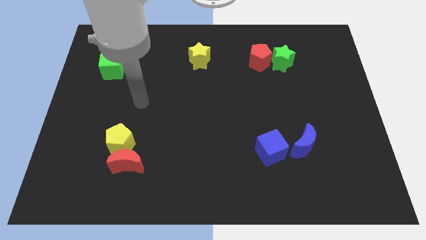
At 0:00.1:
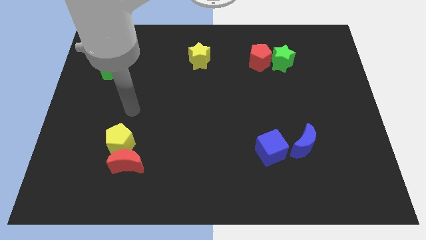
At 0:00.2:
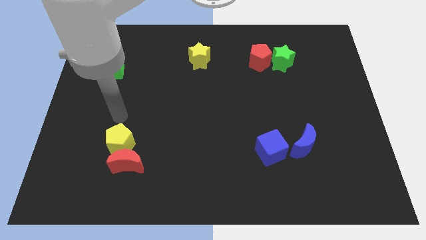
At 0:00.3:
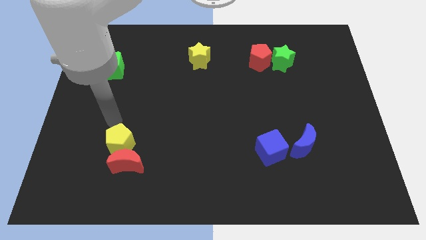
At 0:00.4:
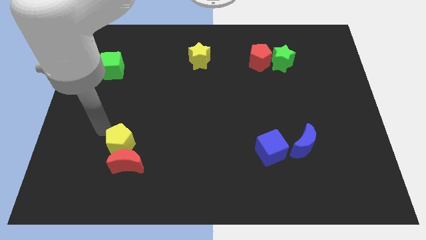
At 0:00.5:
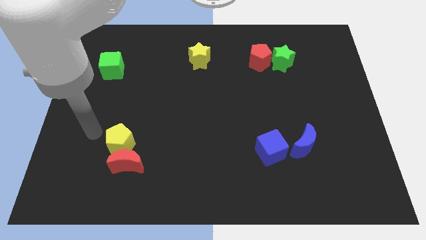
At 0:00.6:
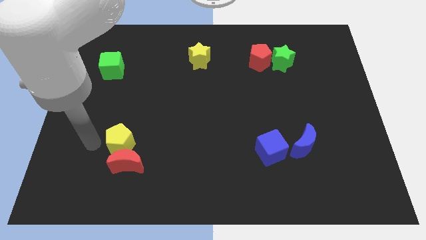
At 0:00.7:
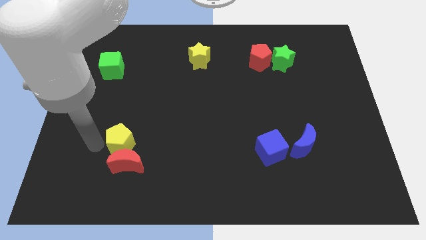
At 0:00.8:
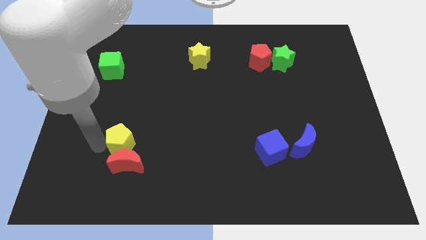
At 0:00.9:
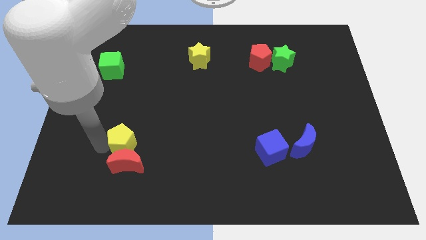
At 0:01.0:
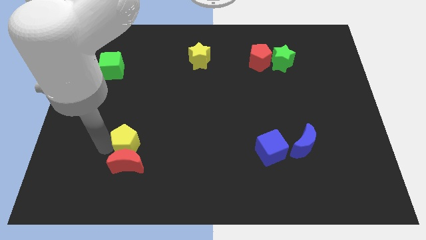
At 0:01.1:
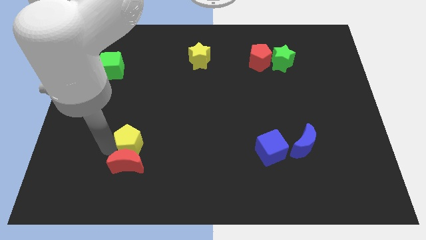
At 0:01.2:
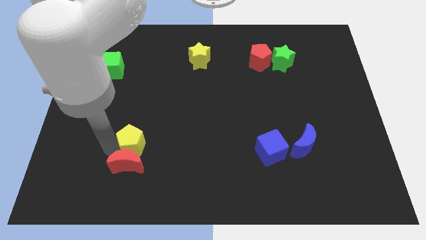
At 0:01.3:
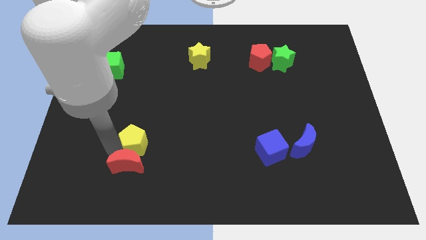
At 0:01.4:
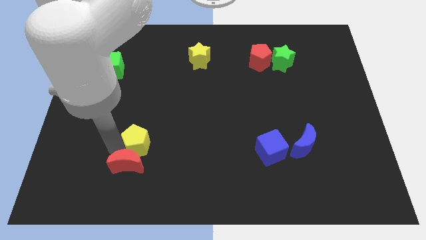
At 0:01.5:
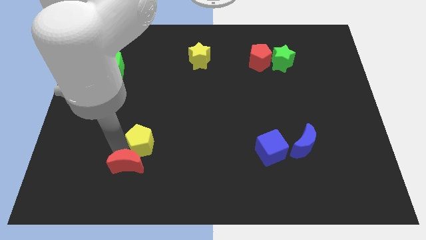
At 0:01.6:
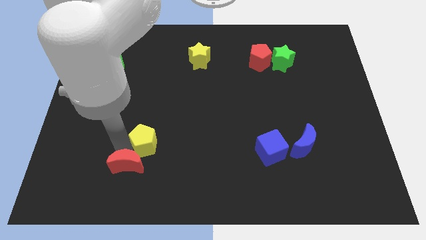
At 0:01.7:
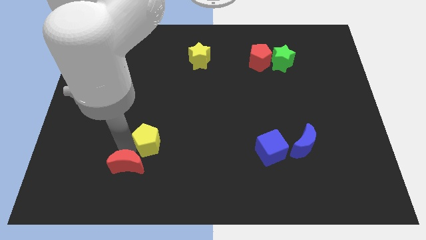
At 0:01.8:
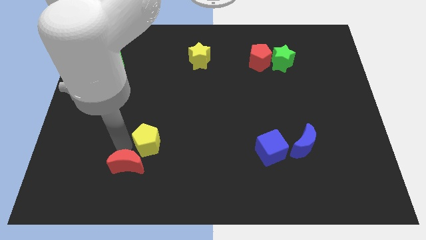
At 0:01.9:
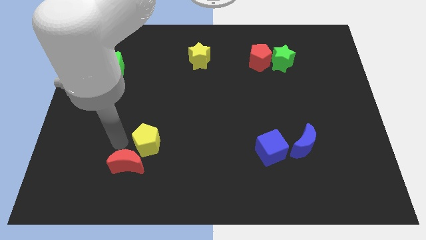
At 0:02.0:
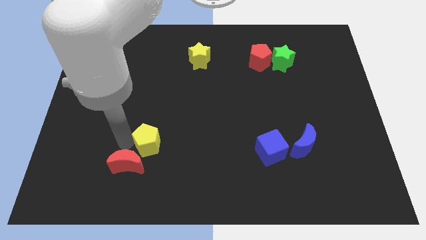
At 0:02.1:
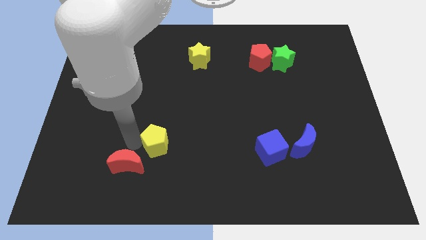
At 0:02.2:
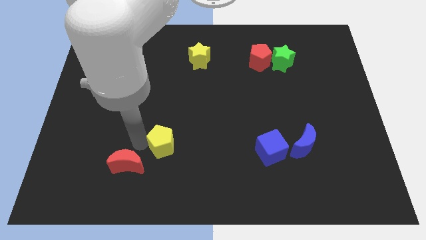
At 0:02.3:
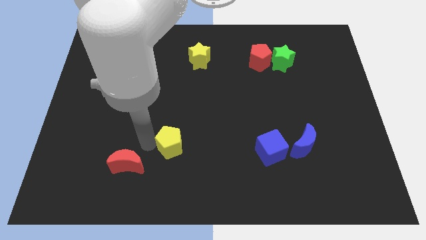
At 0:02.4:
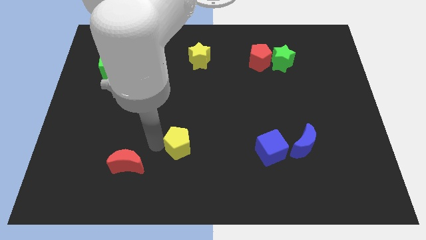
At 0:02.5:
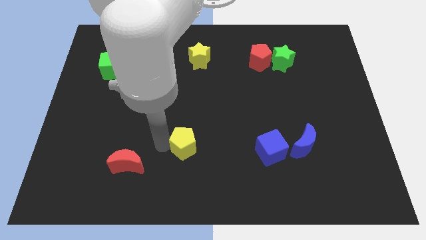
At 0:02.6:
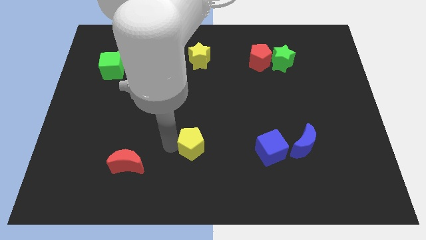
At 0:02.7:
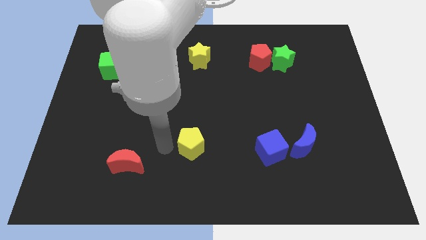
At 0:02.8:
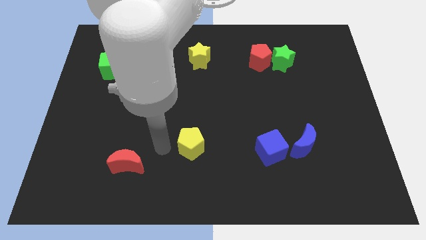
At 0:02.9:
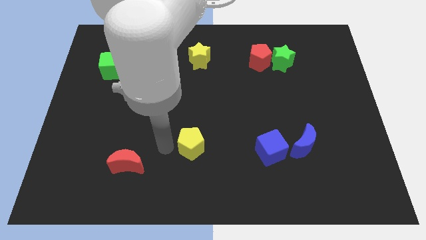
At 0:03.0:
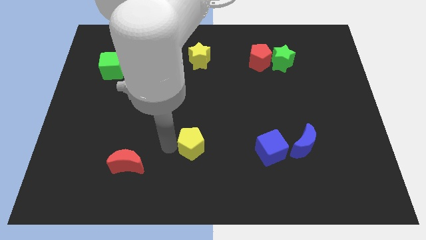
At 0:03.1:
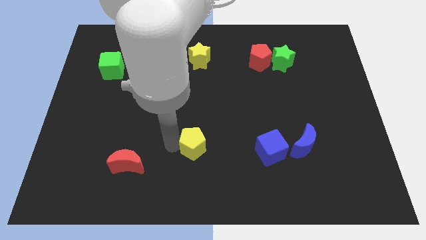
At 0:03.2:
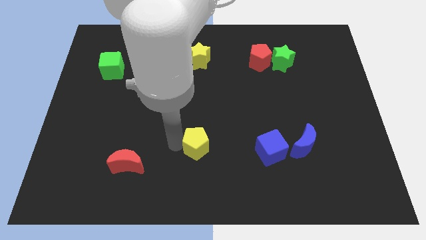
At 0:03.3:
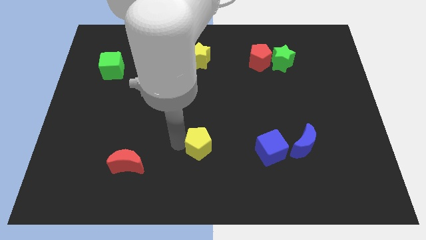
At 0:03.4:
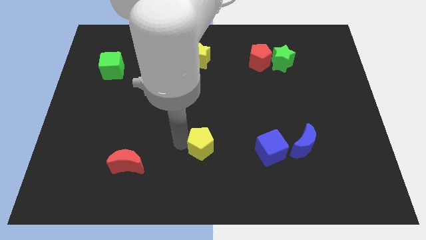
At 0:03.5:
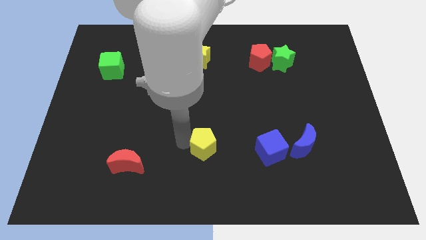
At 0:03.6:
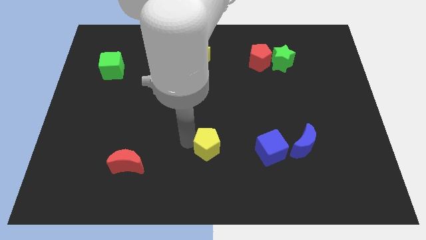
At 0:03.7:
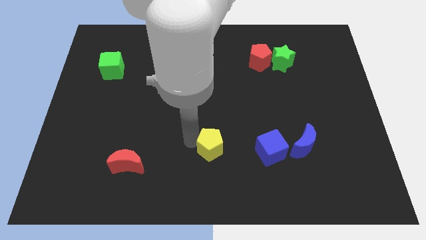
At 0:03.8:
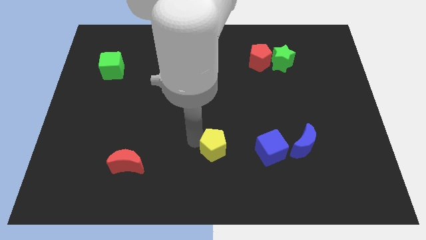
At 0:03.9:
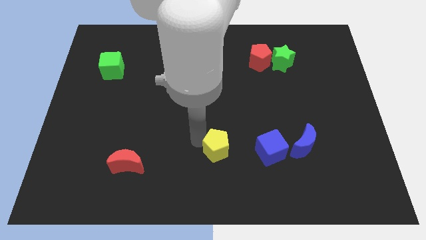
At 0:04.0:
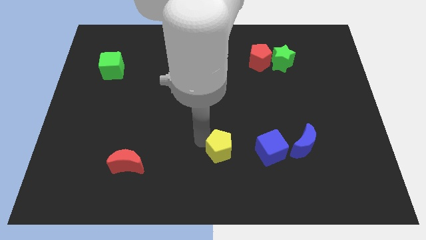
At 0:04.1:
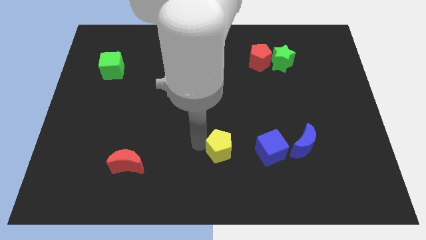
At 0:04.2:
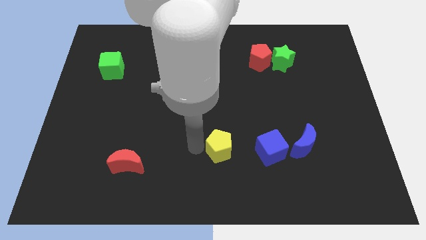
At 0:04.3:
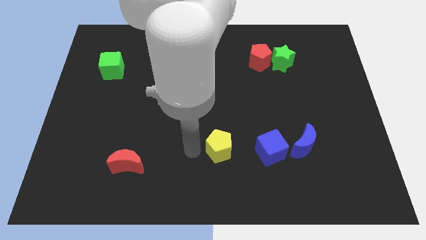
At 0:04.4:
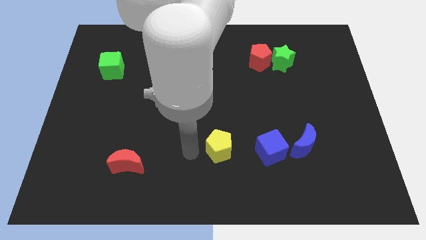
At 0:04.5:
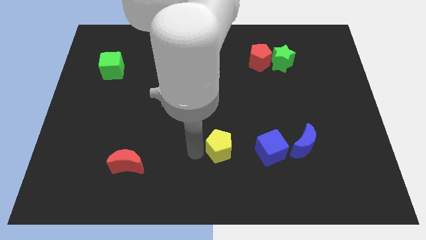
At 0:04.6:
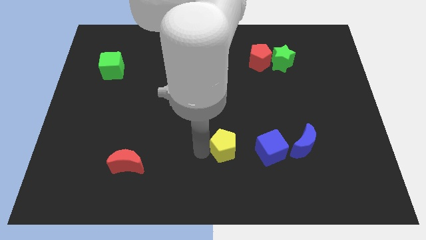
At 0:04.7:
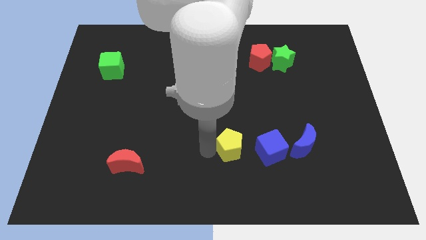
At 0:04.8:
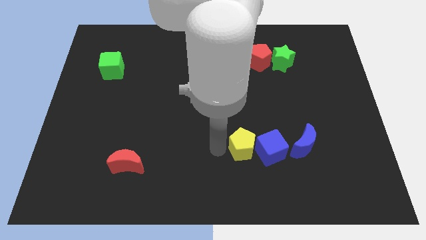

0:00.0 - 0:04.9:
move the yellow pentagon next to the blue cube

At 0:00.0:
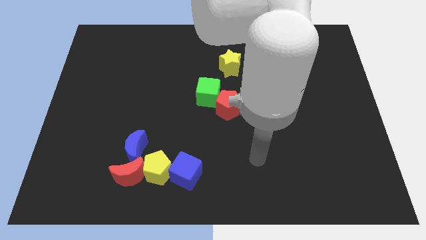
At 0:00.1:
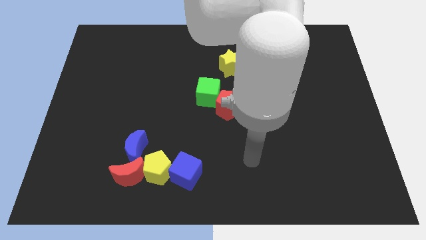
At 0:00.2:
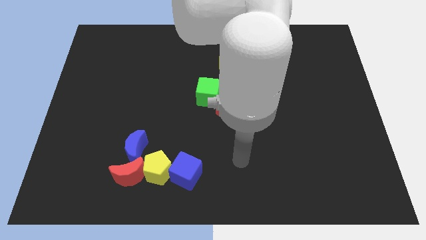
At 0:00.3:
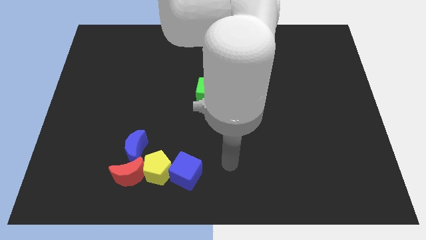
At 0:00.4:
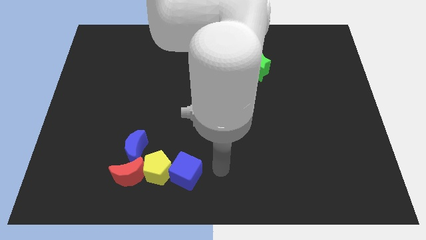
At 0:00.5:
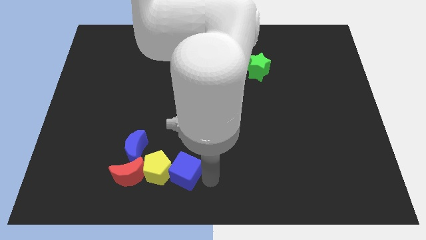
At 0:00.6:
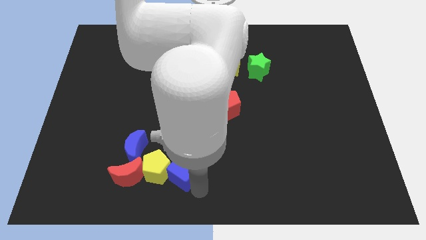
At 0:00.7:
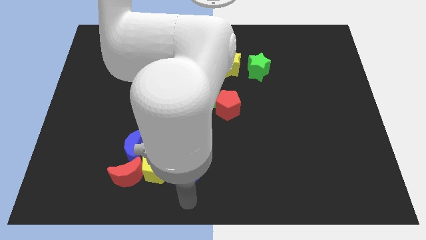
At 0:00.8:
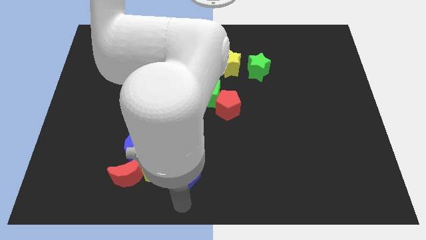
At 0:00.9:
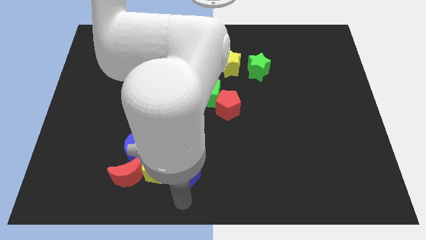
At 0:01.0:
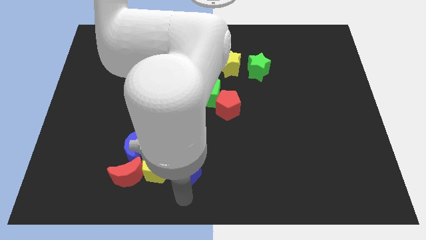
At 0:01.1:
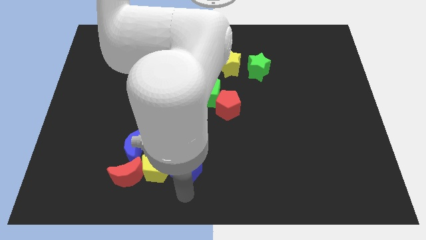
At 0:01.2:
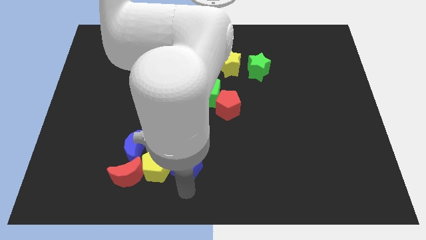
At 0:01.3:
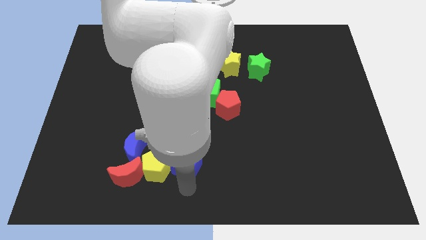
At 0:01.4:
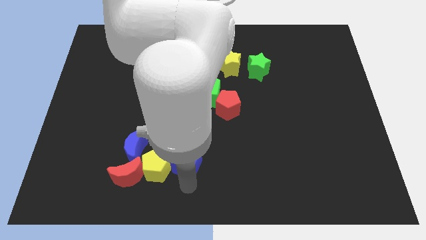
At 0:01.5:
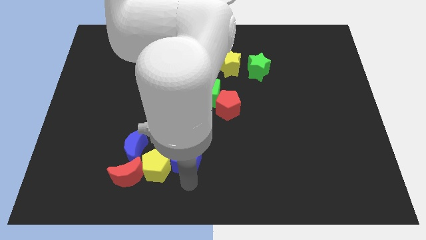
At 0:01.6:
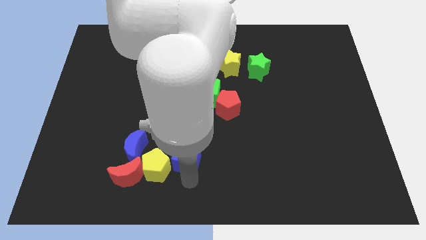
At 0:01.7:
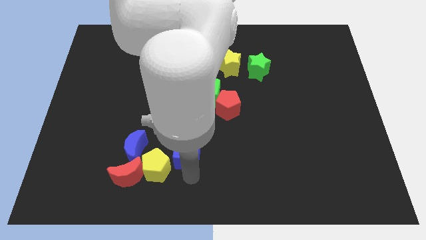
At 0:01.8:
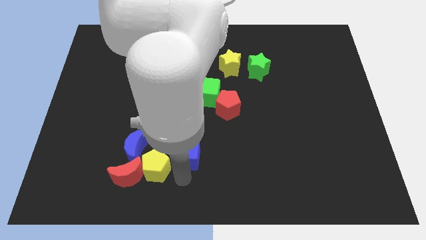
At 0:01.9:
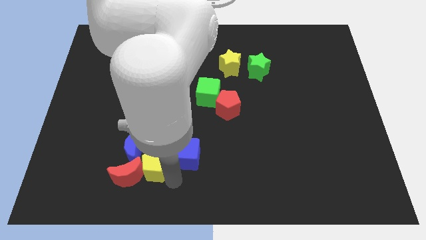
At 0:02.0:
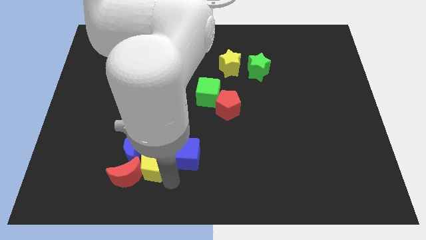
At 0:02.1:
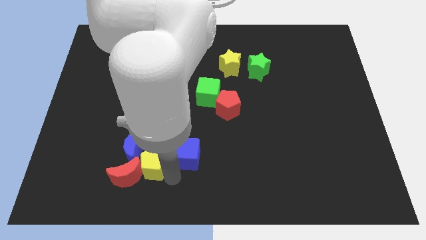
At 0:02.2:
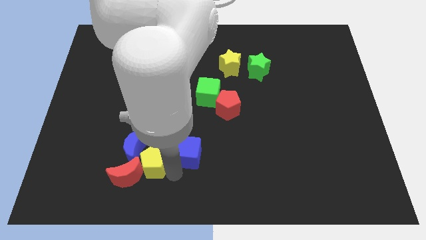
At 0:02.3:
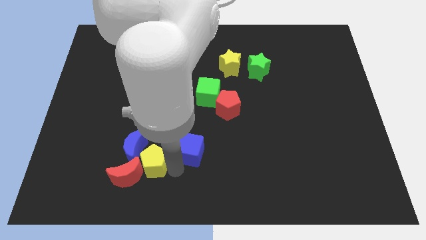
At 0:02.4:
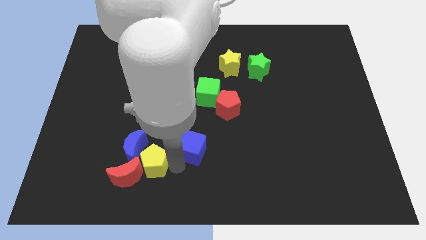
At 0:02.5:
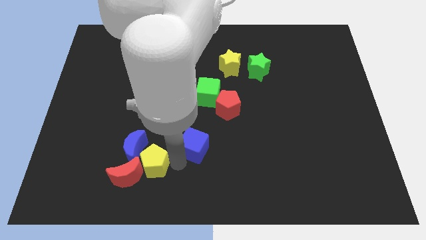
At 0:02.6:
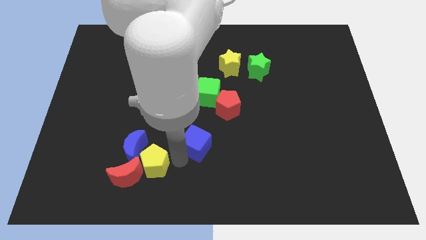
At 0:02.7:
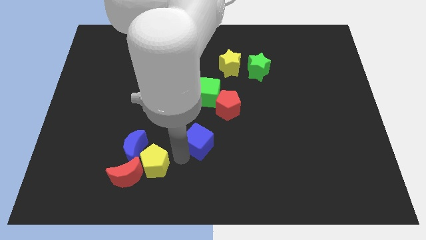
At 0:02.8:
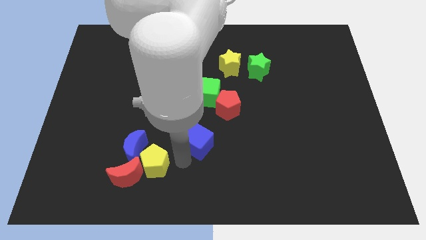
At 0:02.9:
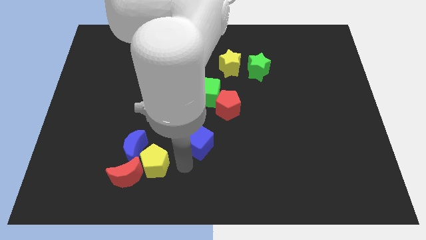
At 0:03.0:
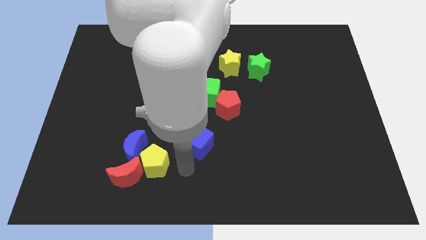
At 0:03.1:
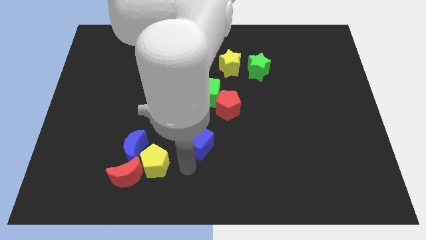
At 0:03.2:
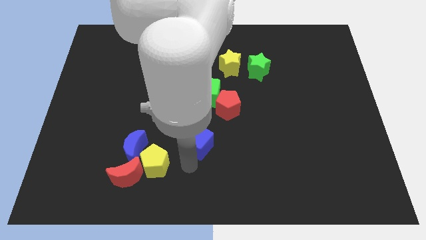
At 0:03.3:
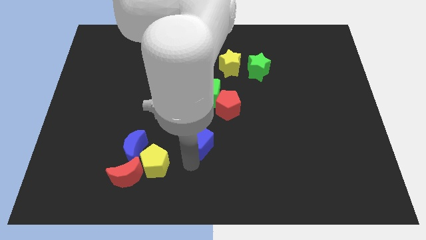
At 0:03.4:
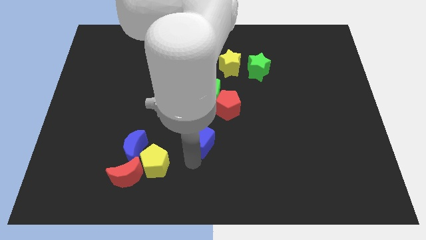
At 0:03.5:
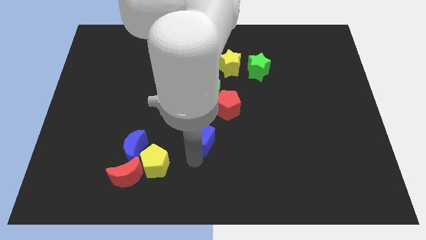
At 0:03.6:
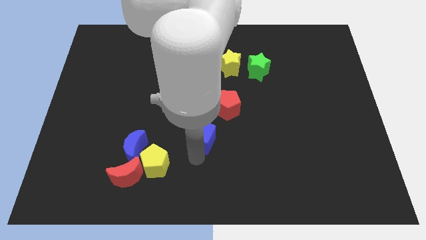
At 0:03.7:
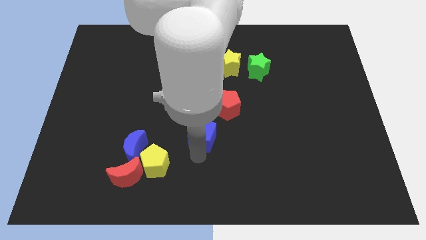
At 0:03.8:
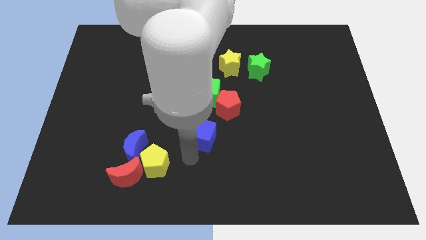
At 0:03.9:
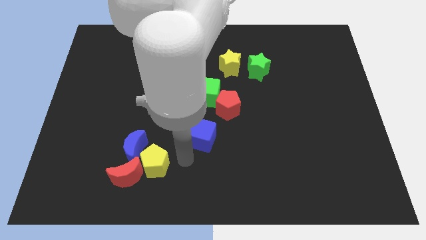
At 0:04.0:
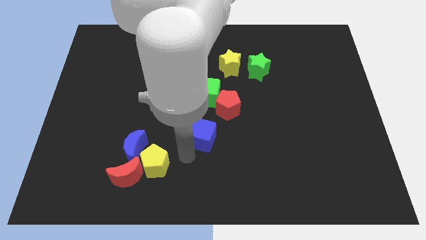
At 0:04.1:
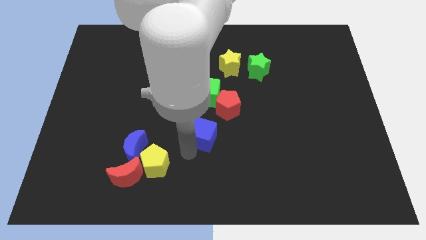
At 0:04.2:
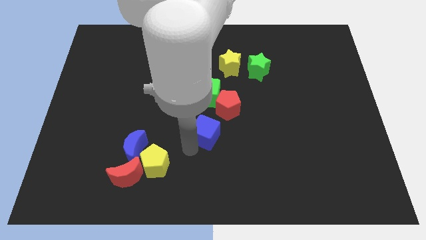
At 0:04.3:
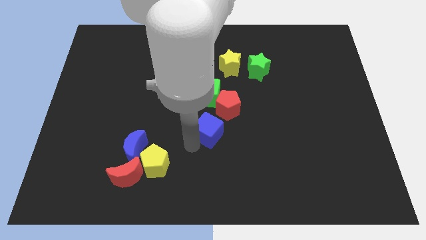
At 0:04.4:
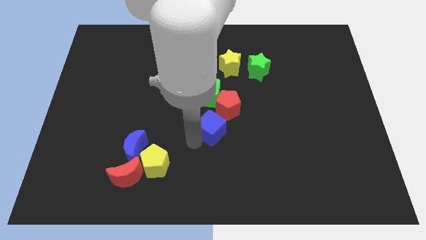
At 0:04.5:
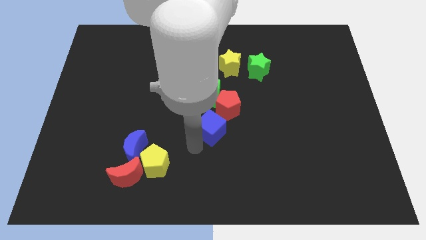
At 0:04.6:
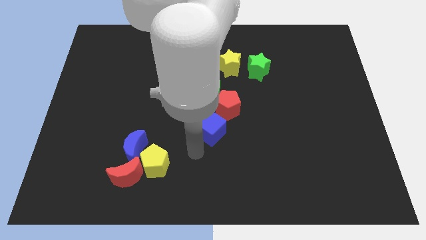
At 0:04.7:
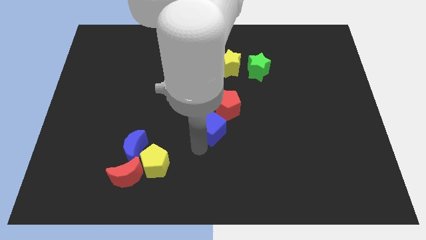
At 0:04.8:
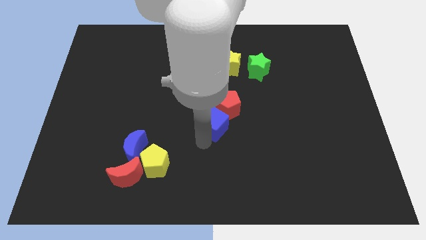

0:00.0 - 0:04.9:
move the blue cube next to the red pentagon
